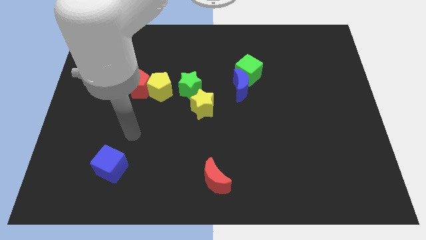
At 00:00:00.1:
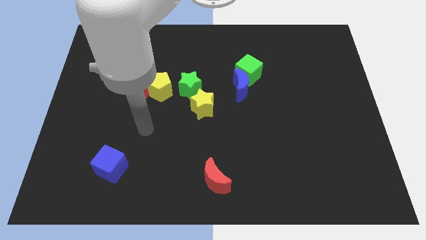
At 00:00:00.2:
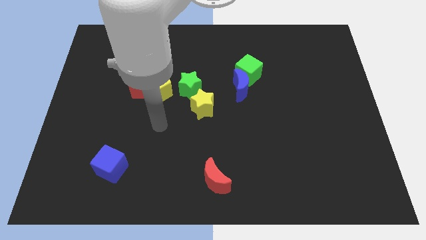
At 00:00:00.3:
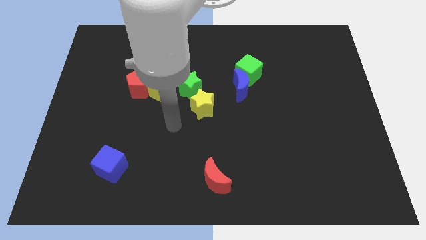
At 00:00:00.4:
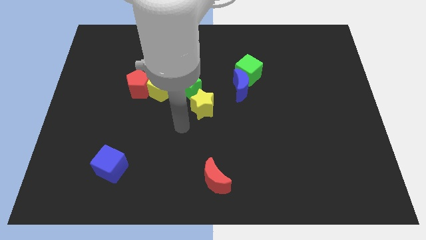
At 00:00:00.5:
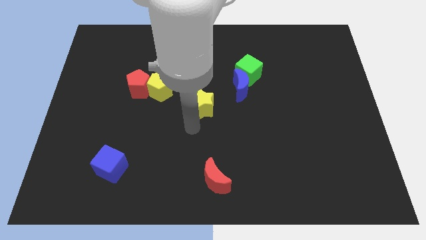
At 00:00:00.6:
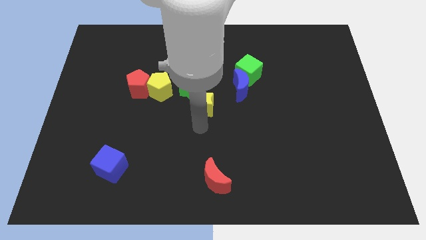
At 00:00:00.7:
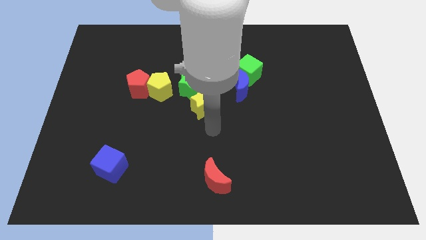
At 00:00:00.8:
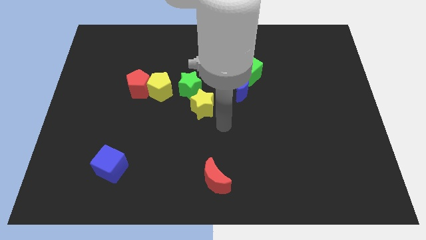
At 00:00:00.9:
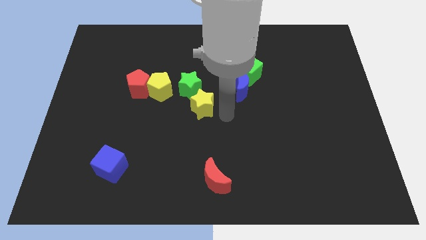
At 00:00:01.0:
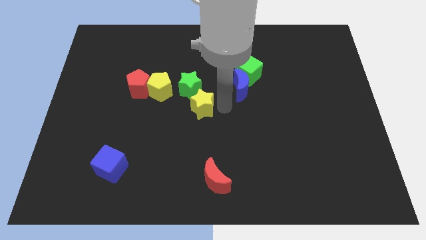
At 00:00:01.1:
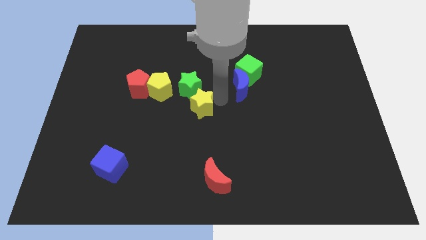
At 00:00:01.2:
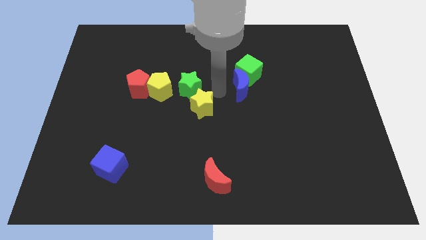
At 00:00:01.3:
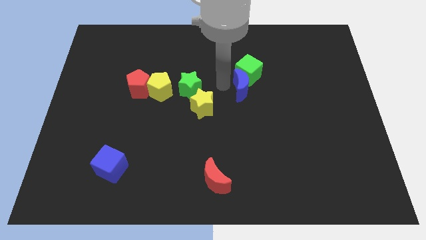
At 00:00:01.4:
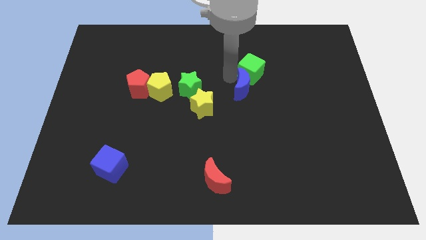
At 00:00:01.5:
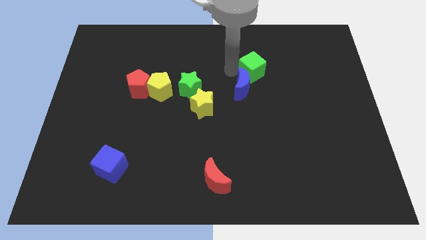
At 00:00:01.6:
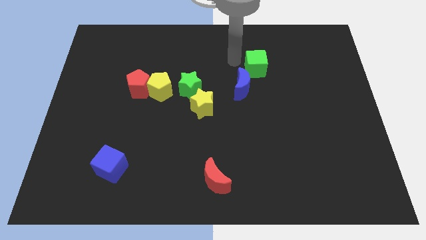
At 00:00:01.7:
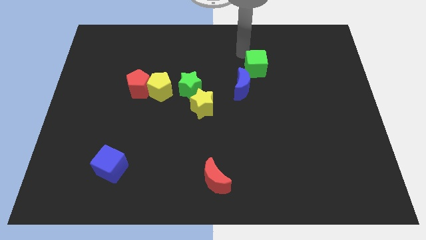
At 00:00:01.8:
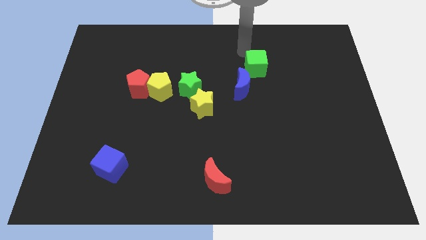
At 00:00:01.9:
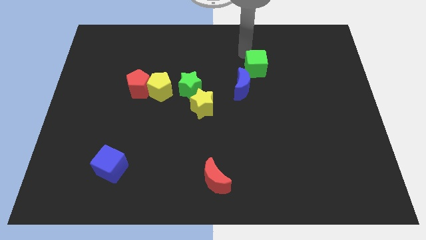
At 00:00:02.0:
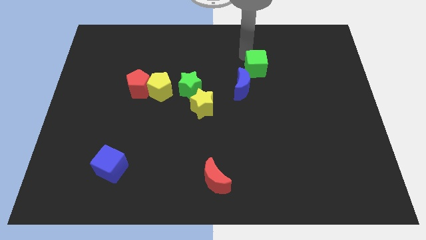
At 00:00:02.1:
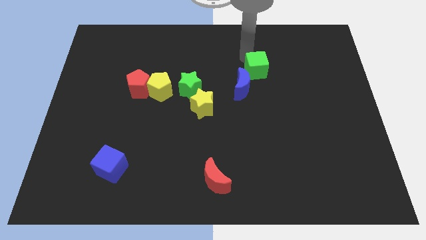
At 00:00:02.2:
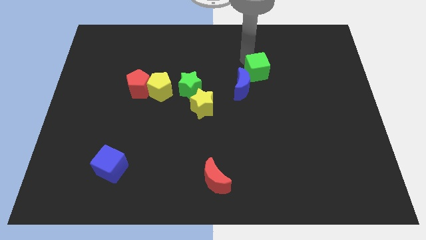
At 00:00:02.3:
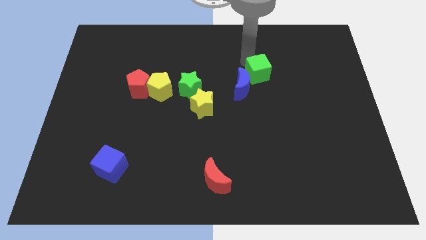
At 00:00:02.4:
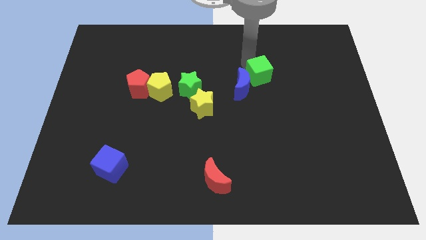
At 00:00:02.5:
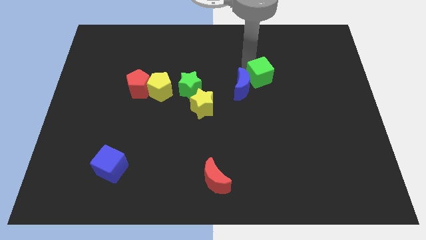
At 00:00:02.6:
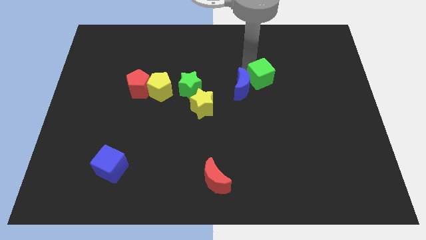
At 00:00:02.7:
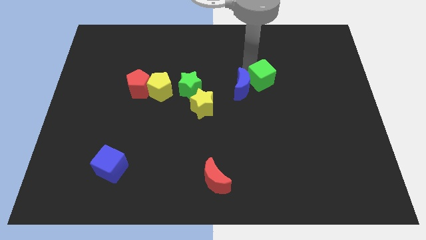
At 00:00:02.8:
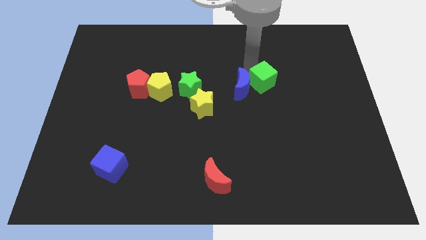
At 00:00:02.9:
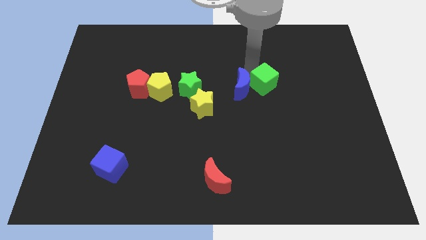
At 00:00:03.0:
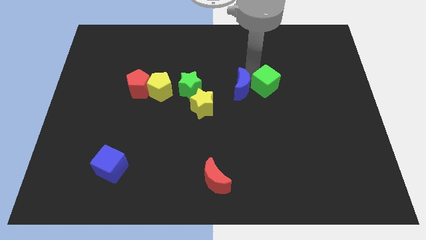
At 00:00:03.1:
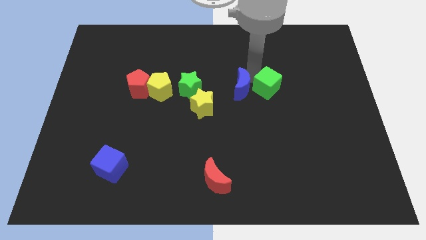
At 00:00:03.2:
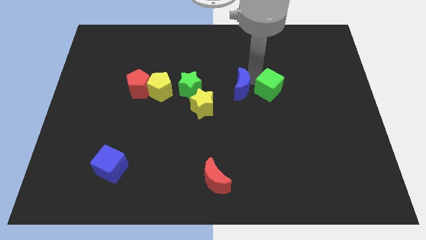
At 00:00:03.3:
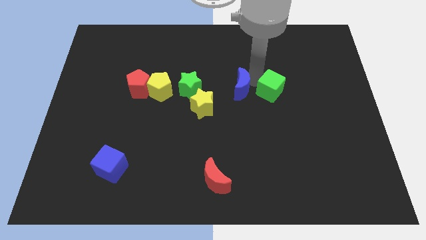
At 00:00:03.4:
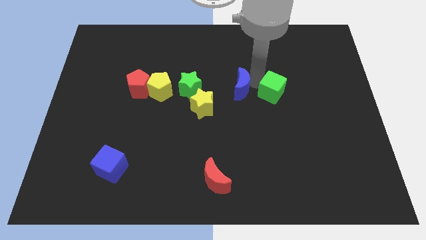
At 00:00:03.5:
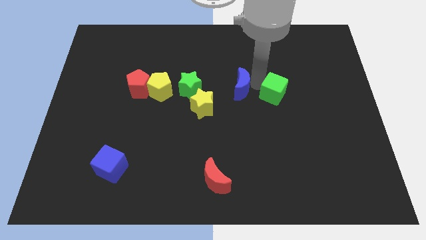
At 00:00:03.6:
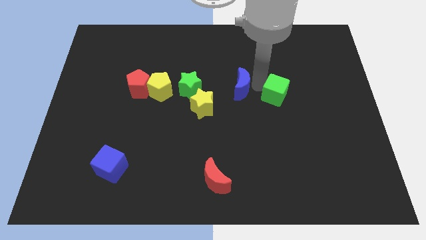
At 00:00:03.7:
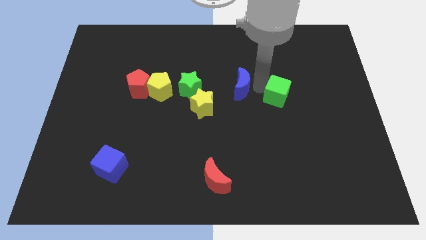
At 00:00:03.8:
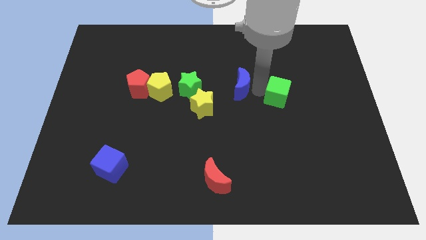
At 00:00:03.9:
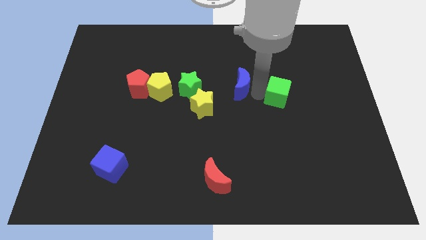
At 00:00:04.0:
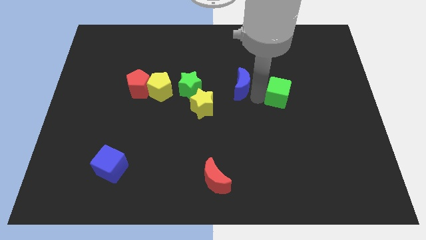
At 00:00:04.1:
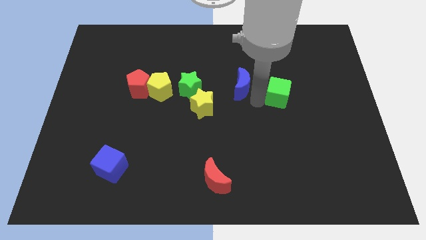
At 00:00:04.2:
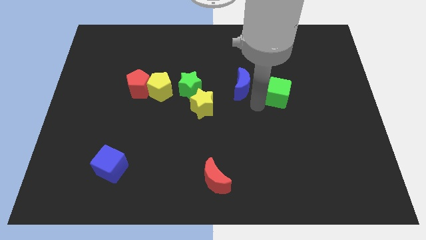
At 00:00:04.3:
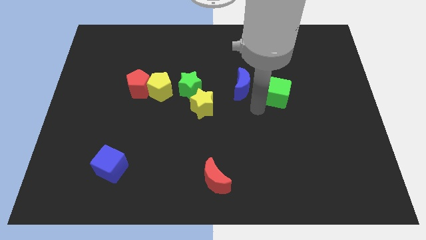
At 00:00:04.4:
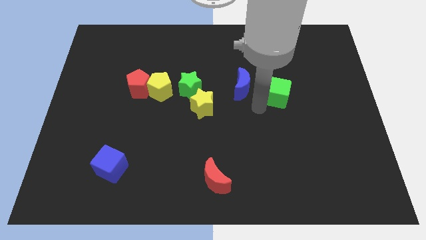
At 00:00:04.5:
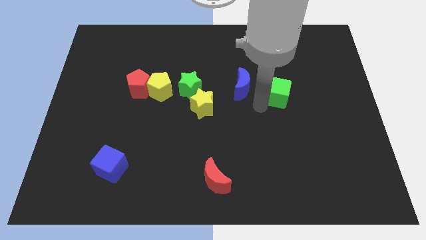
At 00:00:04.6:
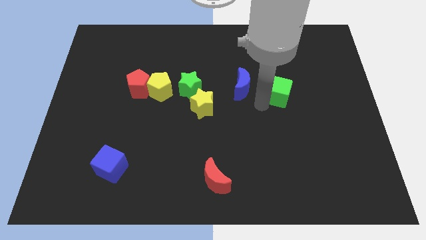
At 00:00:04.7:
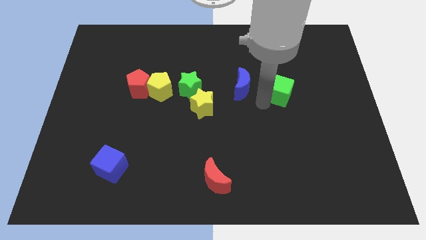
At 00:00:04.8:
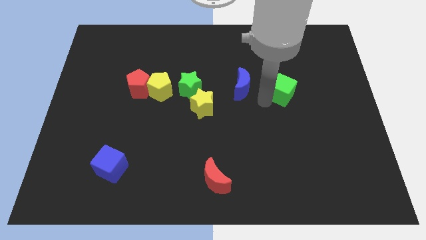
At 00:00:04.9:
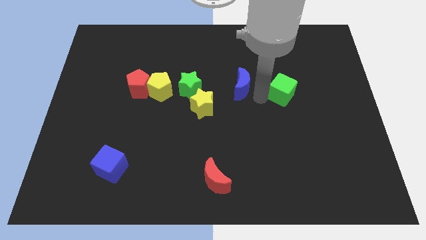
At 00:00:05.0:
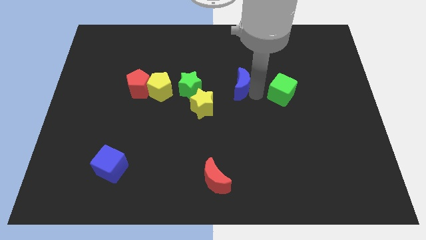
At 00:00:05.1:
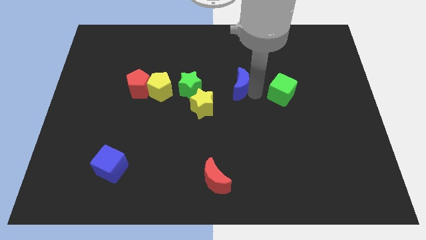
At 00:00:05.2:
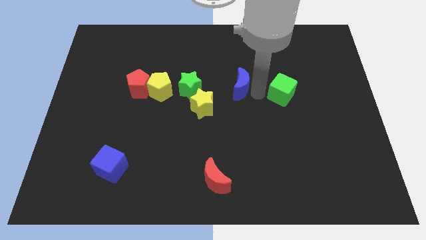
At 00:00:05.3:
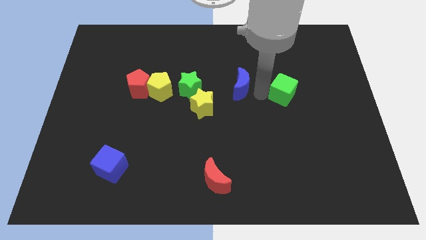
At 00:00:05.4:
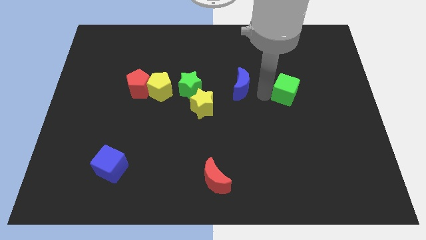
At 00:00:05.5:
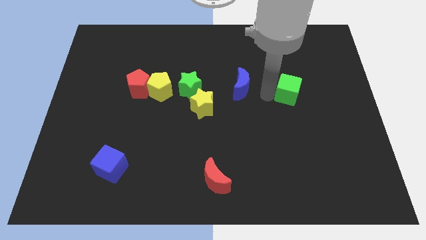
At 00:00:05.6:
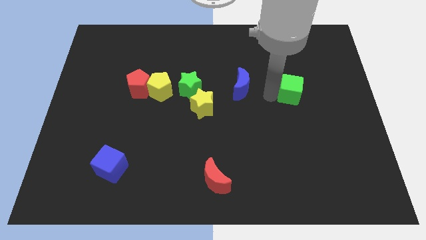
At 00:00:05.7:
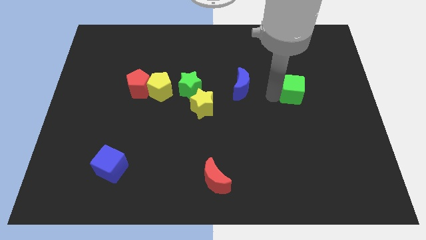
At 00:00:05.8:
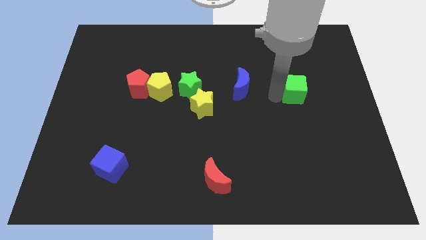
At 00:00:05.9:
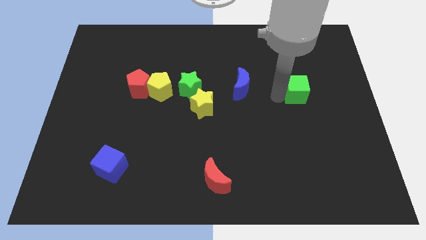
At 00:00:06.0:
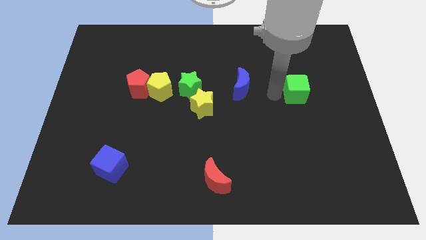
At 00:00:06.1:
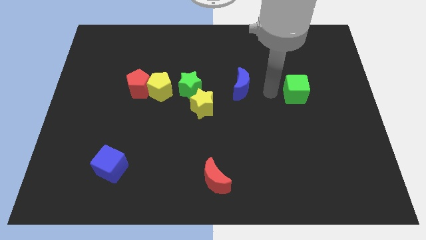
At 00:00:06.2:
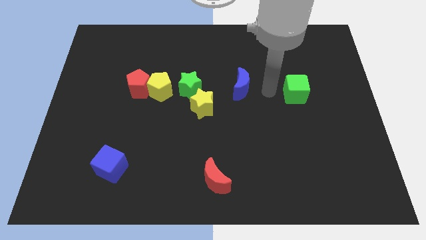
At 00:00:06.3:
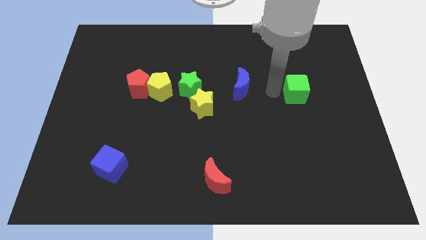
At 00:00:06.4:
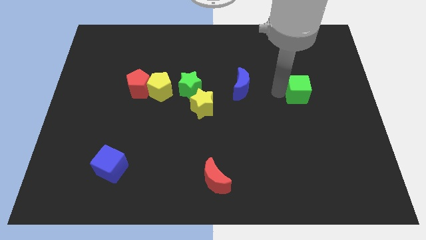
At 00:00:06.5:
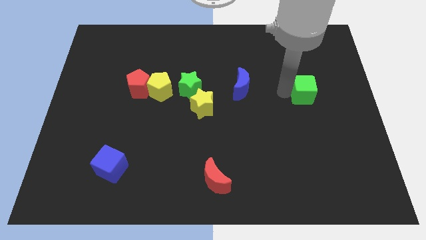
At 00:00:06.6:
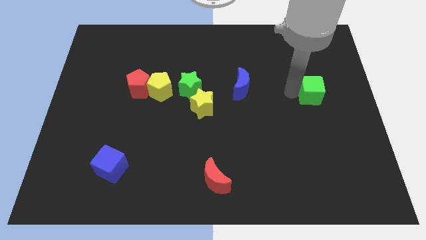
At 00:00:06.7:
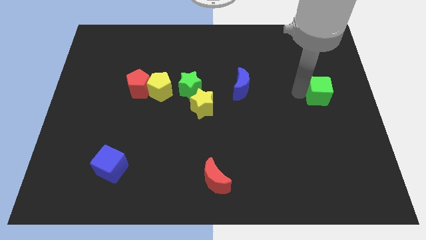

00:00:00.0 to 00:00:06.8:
put the green cube to the right side of the board

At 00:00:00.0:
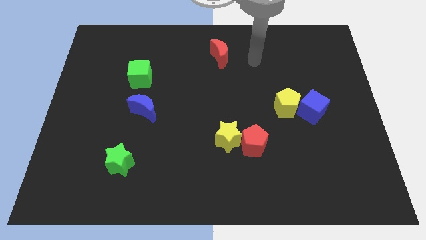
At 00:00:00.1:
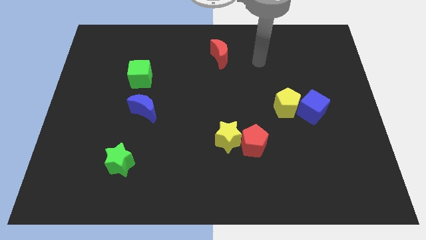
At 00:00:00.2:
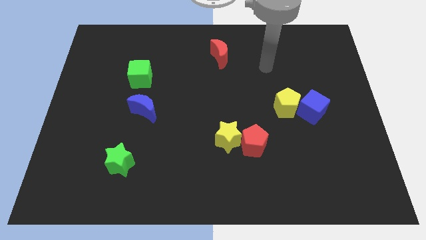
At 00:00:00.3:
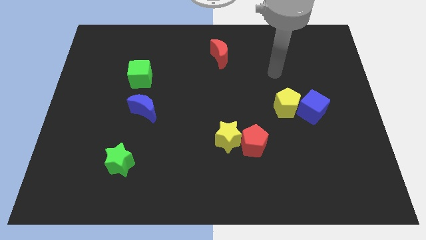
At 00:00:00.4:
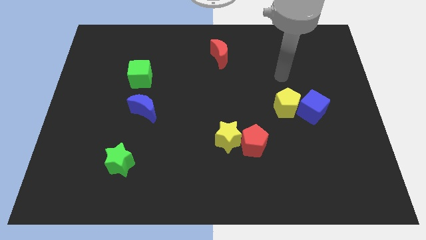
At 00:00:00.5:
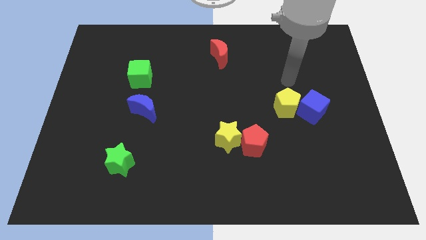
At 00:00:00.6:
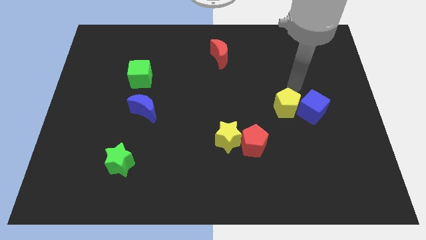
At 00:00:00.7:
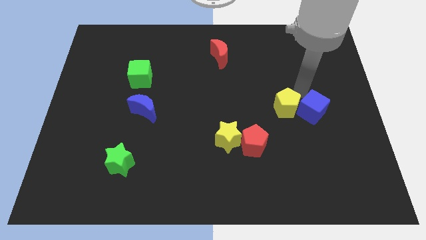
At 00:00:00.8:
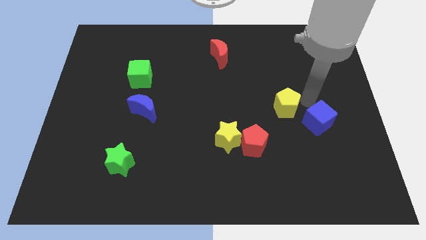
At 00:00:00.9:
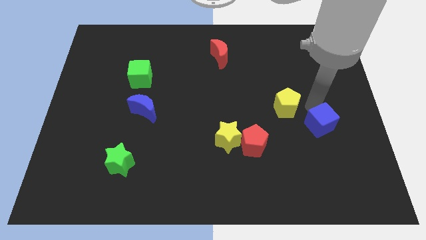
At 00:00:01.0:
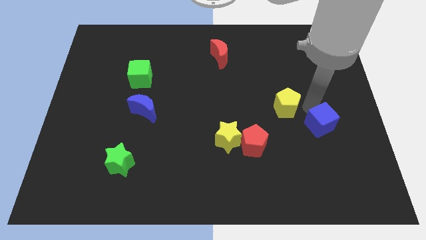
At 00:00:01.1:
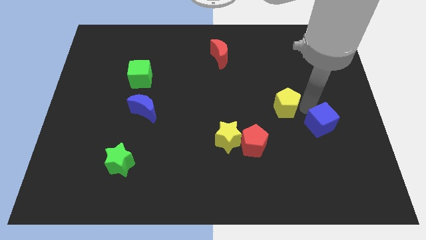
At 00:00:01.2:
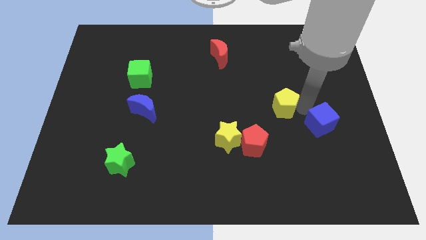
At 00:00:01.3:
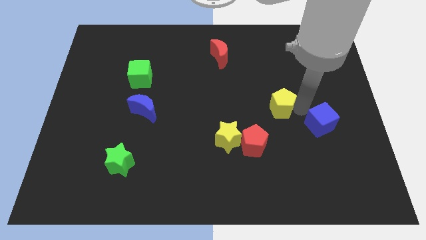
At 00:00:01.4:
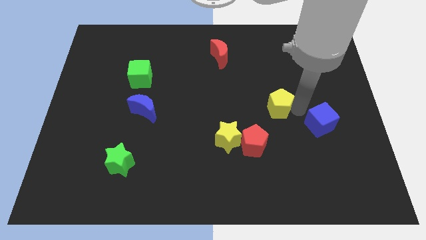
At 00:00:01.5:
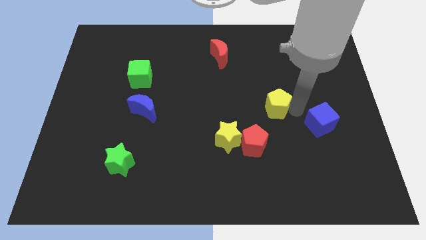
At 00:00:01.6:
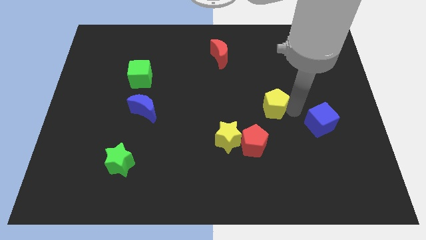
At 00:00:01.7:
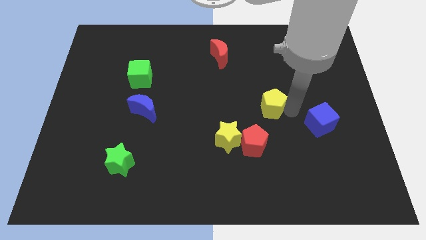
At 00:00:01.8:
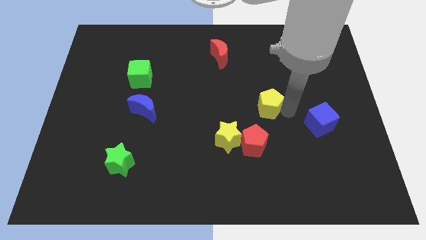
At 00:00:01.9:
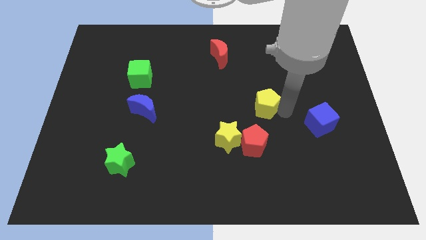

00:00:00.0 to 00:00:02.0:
push the yellow pentagon to the middle of the board
